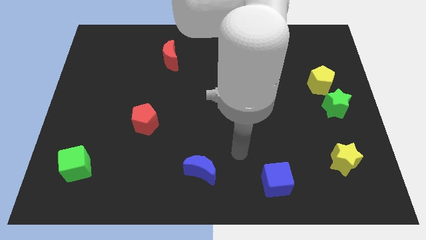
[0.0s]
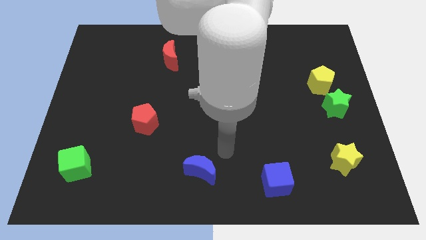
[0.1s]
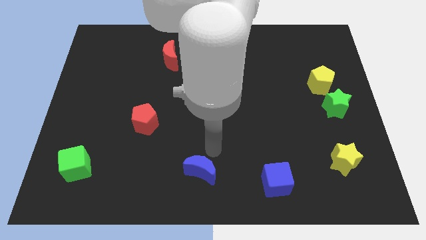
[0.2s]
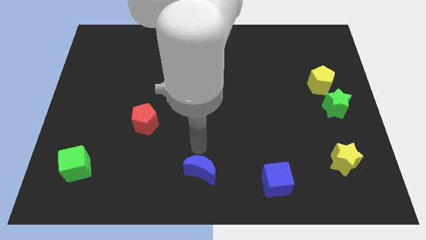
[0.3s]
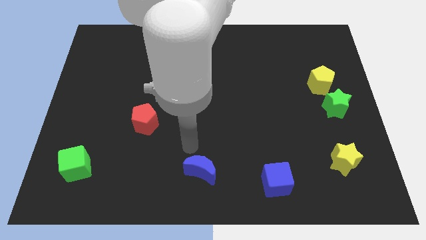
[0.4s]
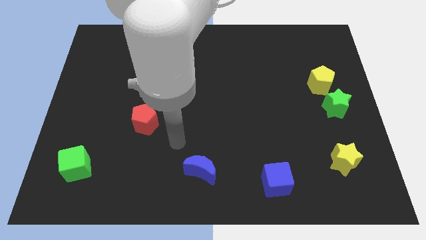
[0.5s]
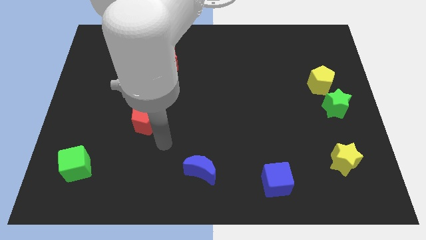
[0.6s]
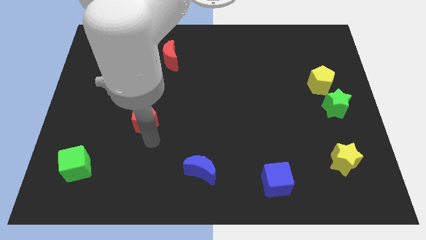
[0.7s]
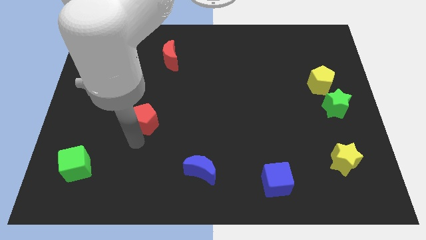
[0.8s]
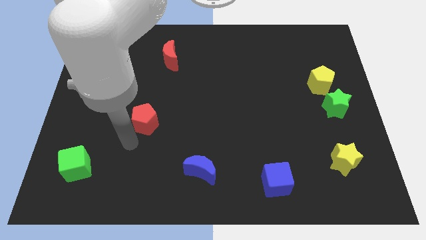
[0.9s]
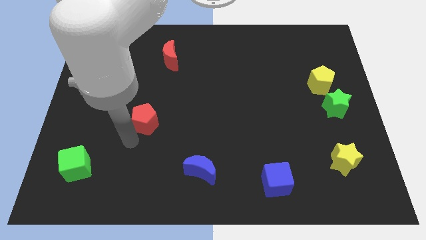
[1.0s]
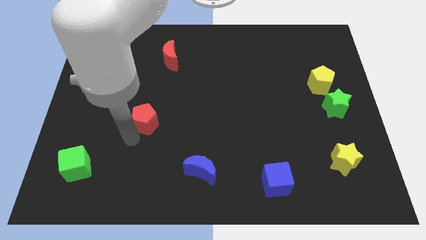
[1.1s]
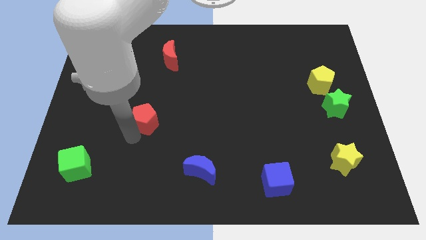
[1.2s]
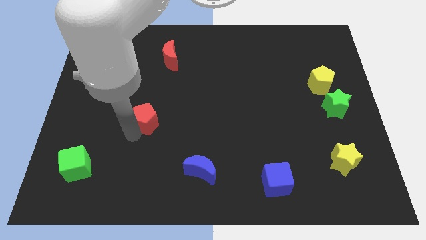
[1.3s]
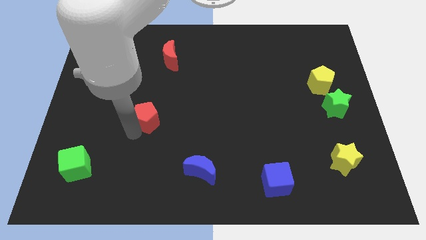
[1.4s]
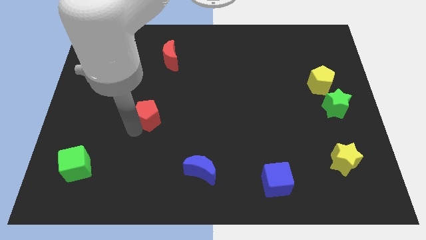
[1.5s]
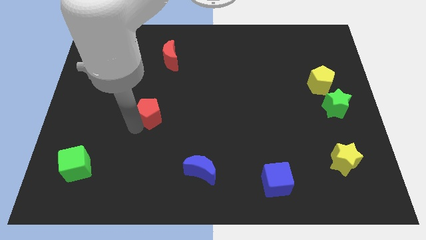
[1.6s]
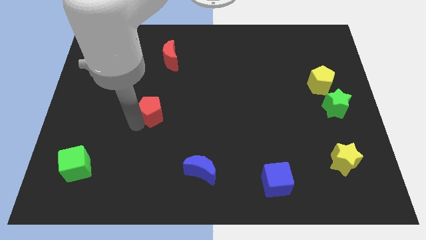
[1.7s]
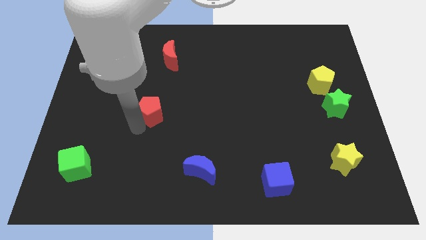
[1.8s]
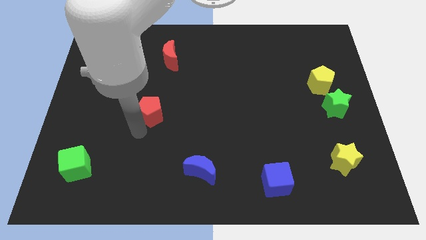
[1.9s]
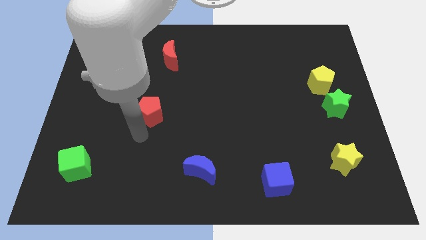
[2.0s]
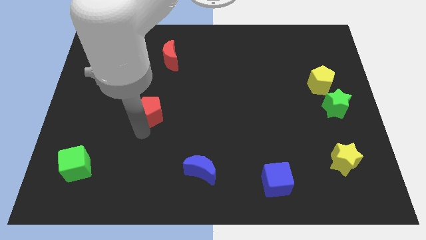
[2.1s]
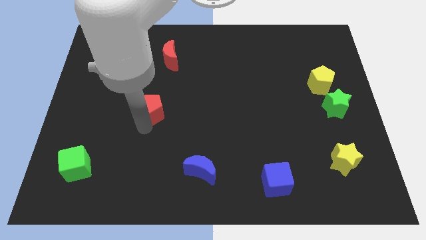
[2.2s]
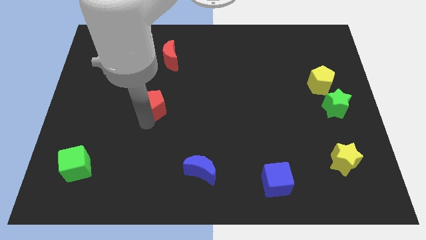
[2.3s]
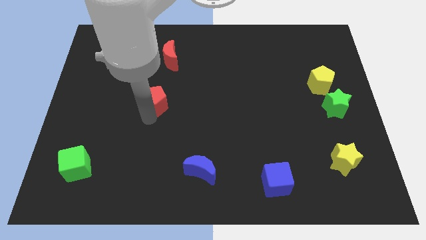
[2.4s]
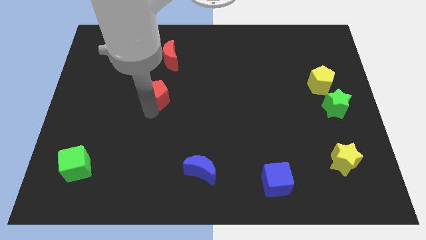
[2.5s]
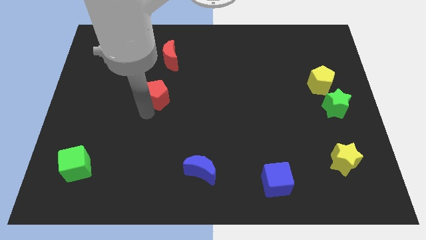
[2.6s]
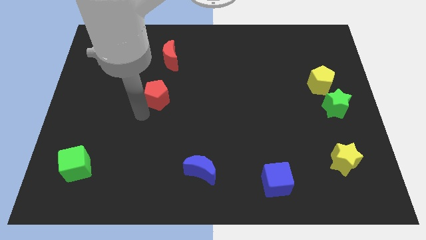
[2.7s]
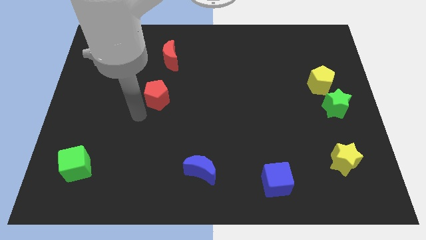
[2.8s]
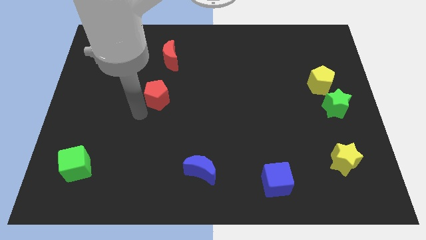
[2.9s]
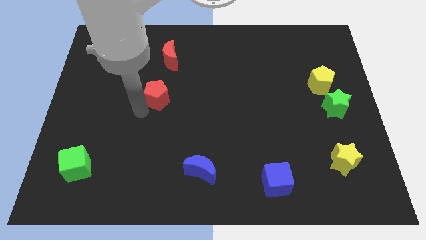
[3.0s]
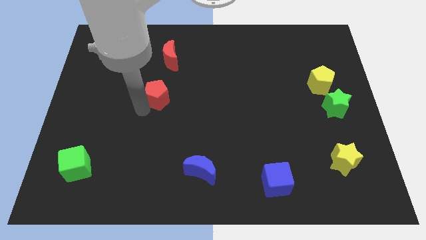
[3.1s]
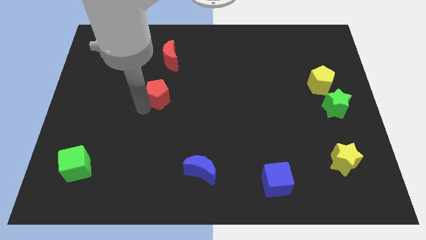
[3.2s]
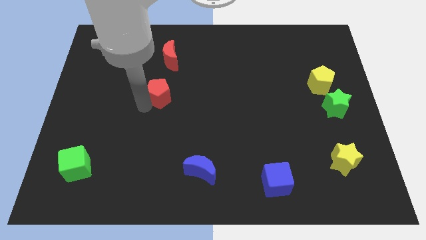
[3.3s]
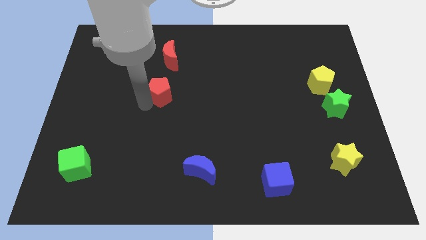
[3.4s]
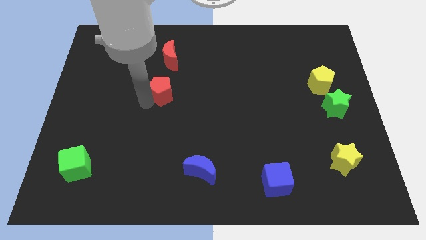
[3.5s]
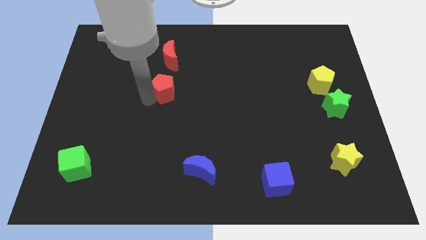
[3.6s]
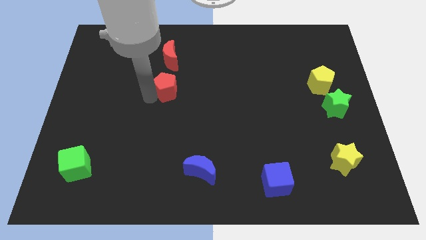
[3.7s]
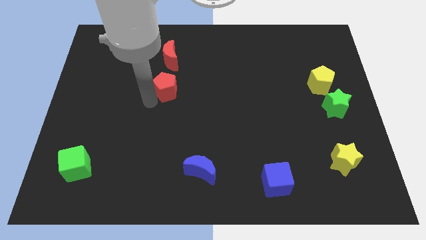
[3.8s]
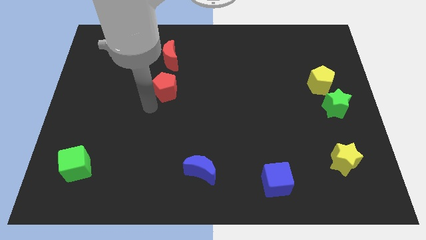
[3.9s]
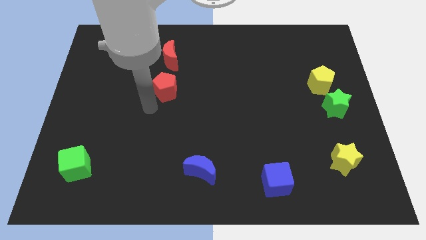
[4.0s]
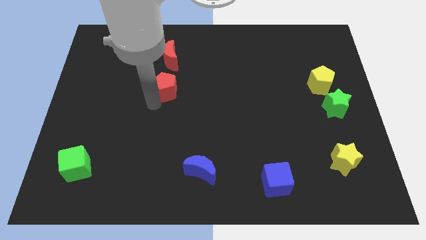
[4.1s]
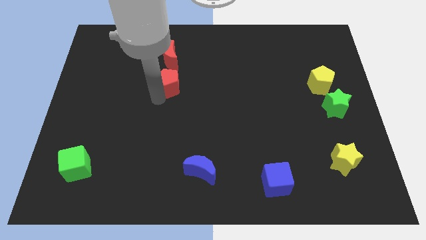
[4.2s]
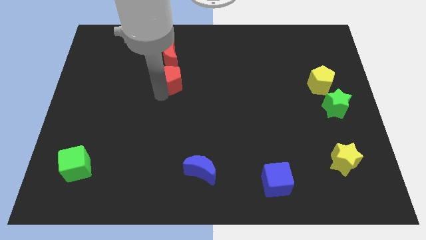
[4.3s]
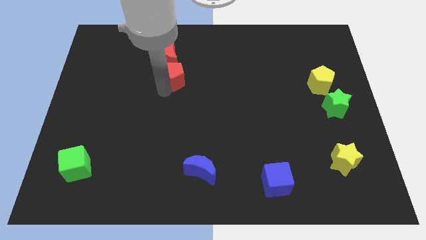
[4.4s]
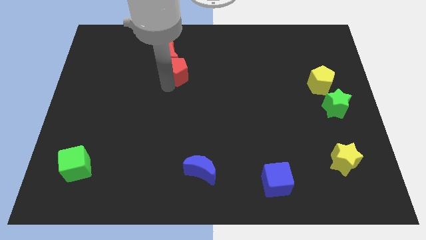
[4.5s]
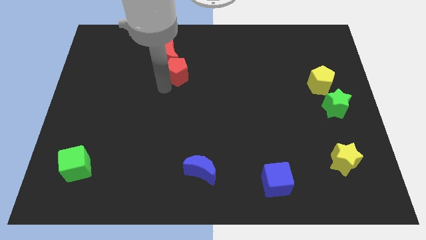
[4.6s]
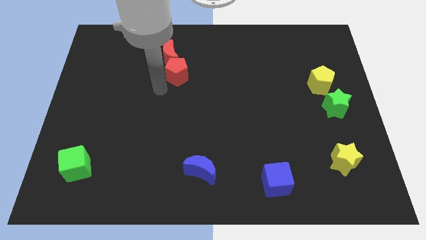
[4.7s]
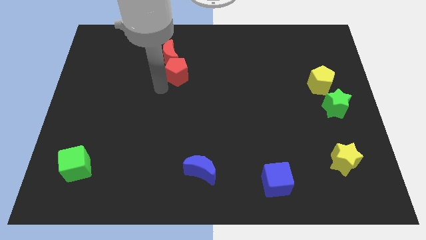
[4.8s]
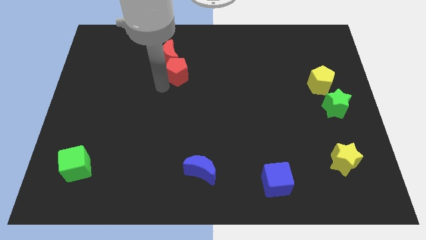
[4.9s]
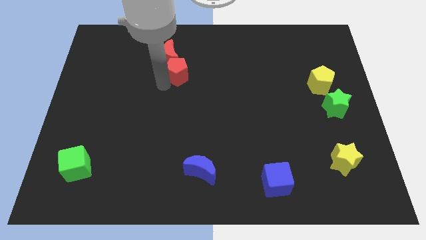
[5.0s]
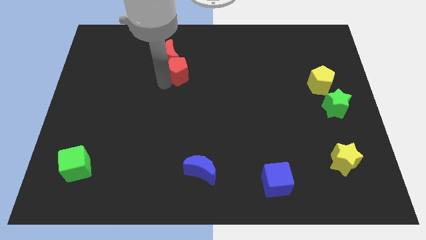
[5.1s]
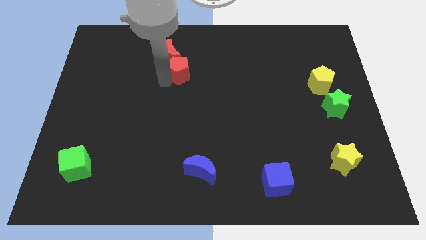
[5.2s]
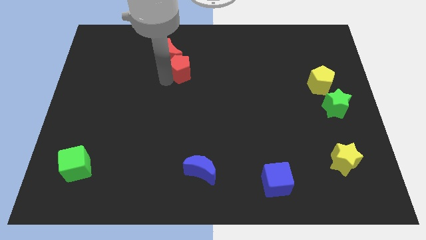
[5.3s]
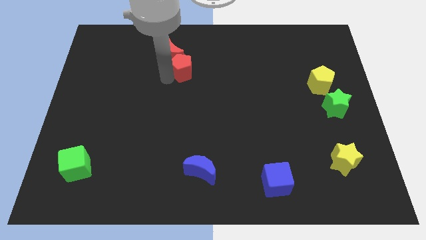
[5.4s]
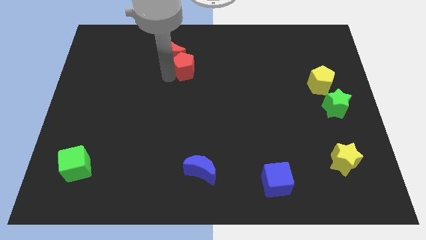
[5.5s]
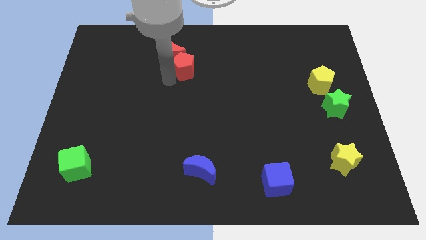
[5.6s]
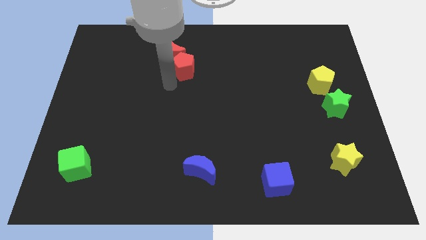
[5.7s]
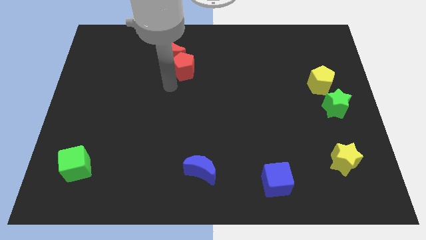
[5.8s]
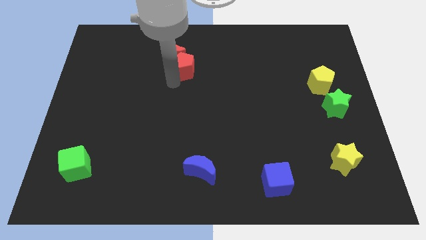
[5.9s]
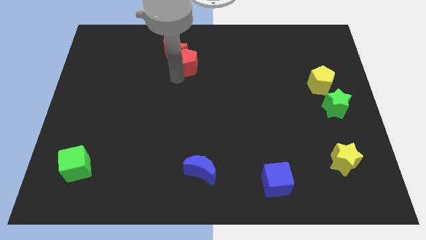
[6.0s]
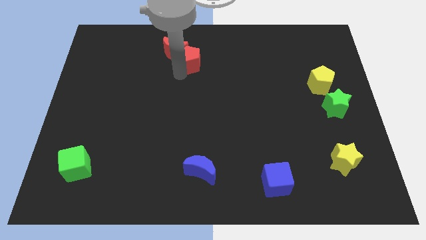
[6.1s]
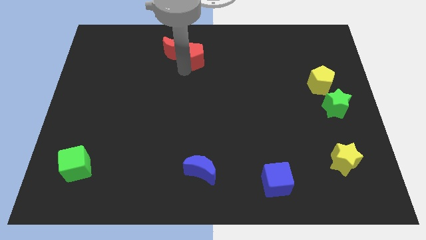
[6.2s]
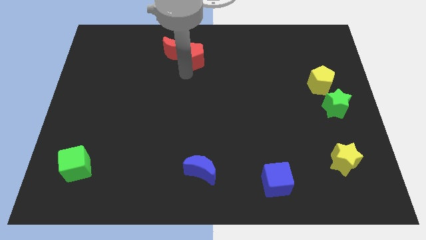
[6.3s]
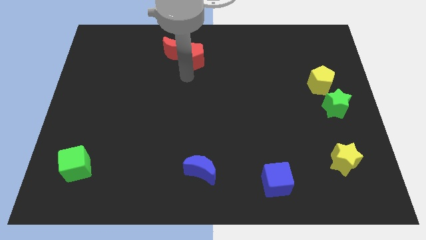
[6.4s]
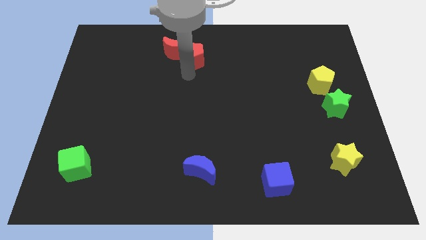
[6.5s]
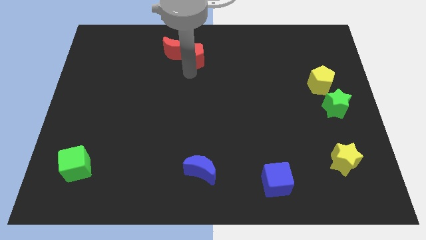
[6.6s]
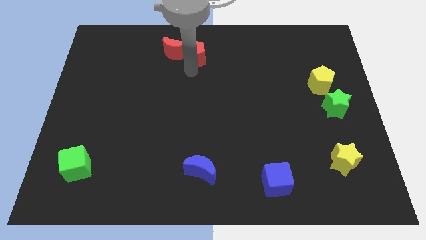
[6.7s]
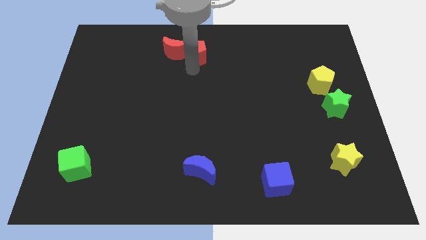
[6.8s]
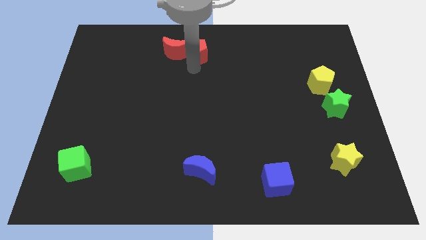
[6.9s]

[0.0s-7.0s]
slide the red pentagon to the top side
